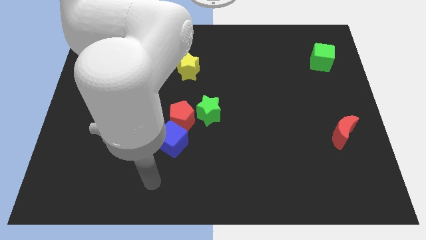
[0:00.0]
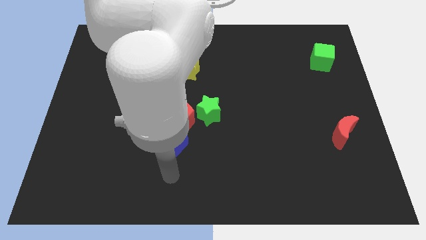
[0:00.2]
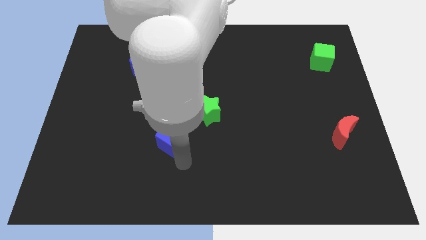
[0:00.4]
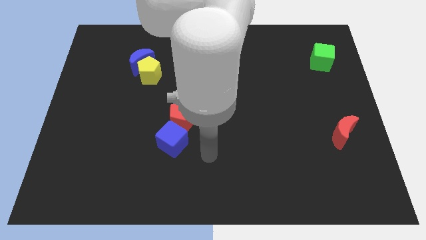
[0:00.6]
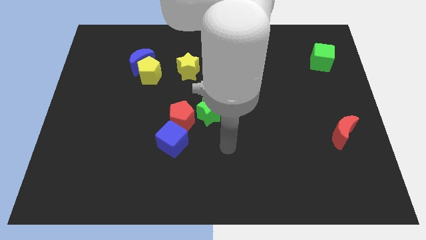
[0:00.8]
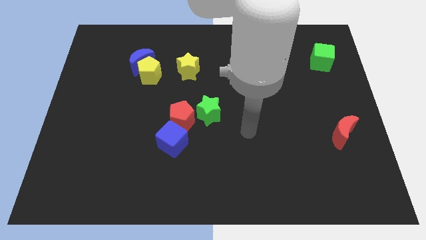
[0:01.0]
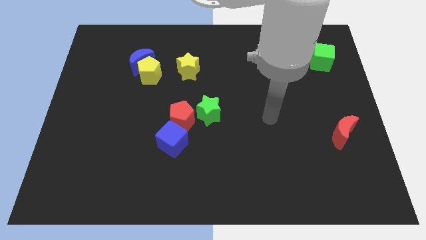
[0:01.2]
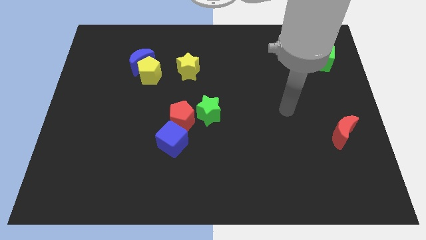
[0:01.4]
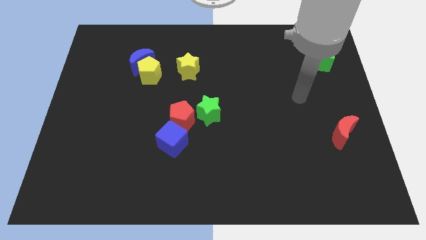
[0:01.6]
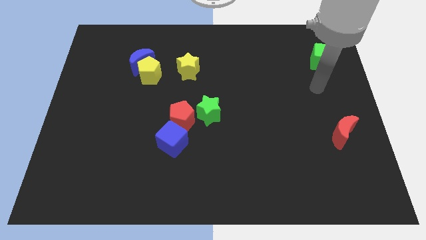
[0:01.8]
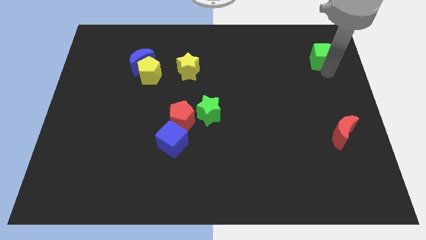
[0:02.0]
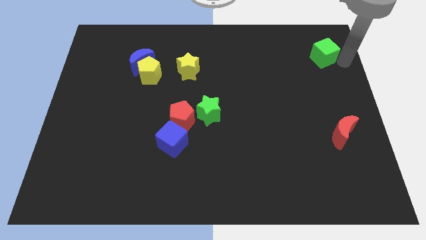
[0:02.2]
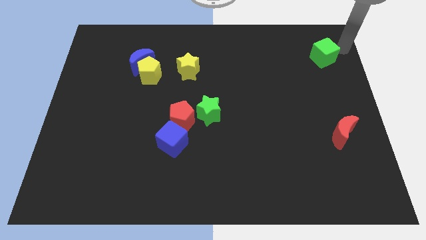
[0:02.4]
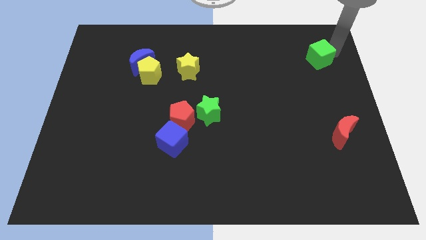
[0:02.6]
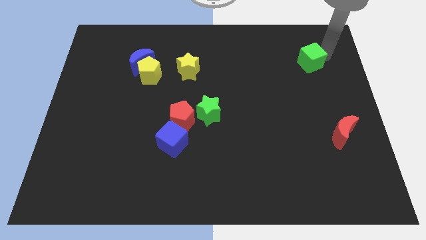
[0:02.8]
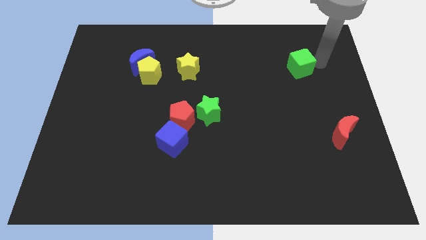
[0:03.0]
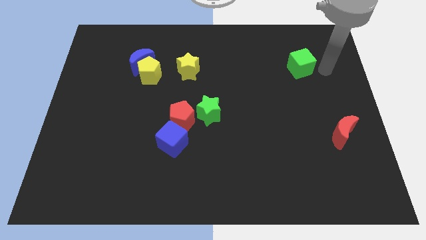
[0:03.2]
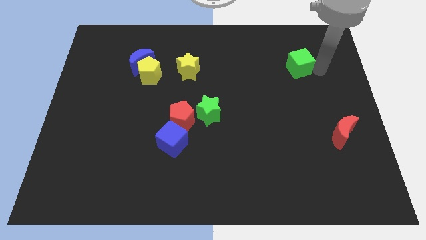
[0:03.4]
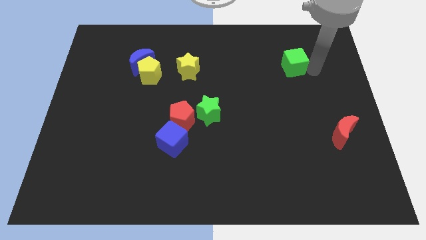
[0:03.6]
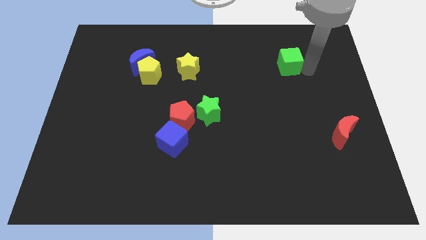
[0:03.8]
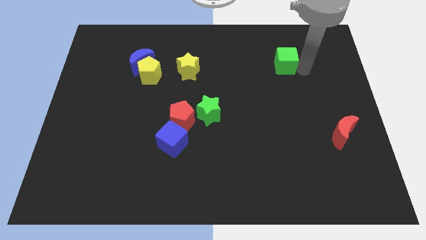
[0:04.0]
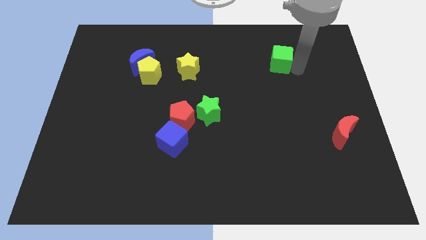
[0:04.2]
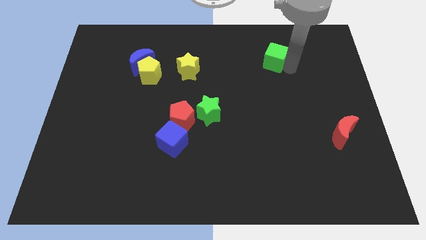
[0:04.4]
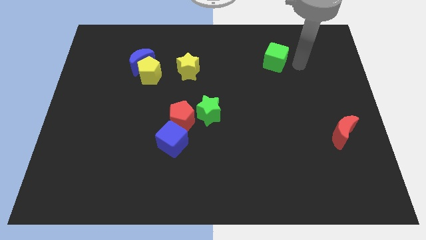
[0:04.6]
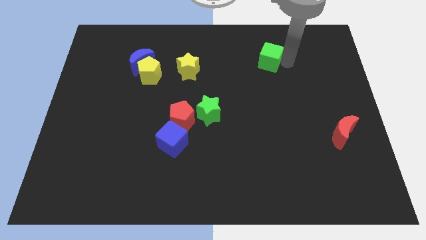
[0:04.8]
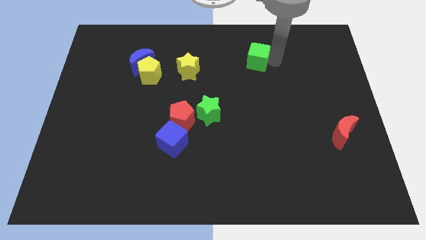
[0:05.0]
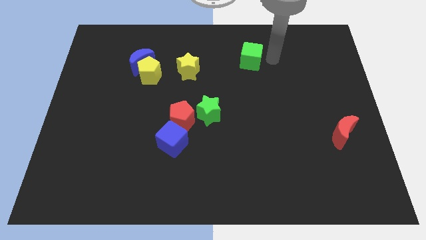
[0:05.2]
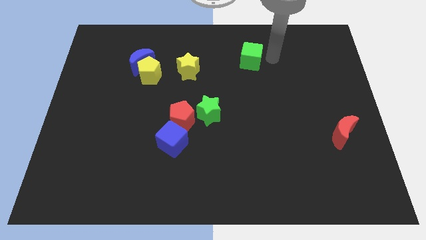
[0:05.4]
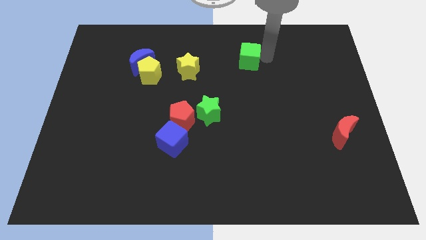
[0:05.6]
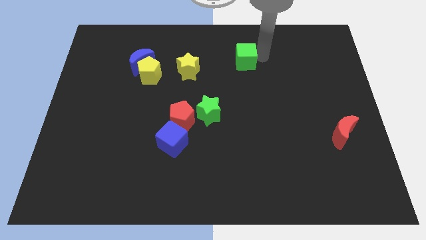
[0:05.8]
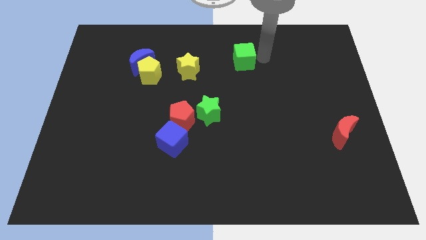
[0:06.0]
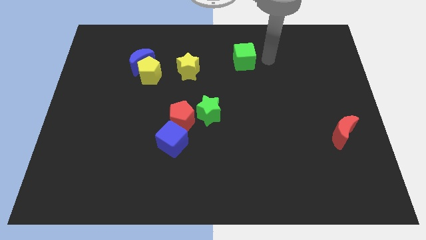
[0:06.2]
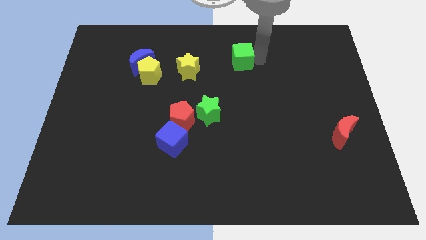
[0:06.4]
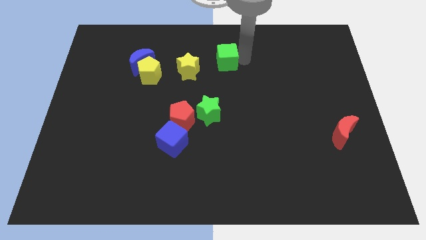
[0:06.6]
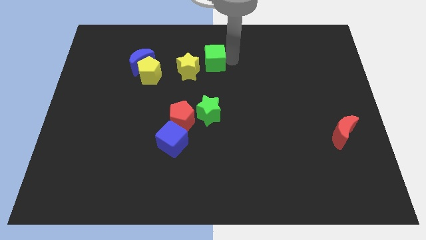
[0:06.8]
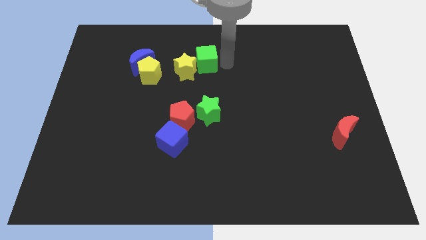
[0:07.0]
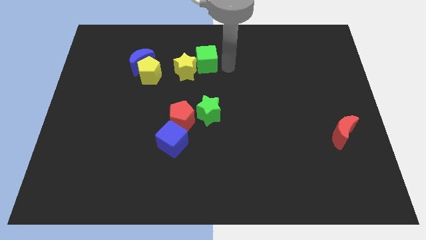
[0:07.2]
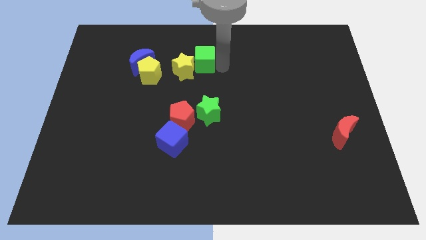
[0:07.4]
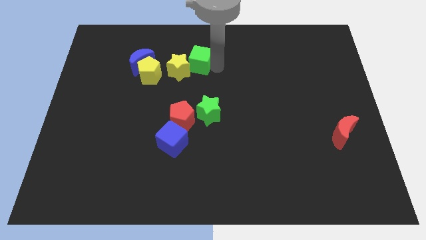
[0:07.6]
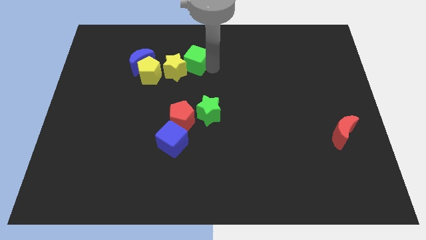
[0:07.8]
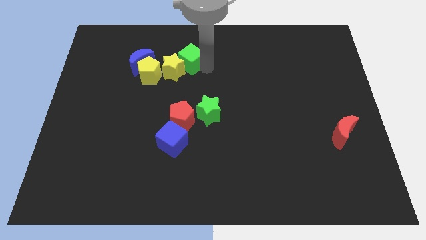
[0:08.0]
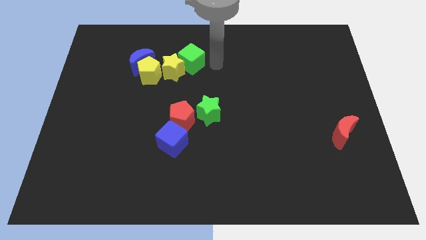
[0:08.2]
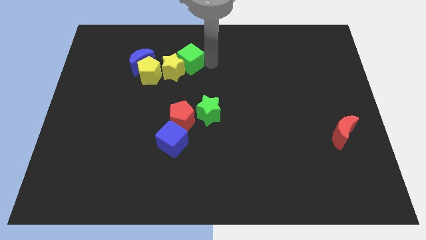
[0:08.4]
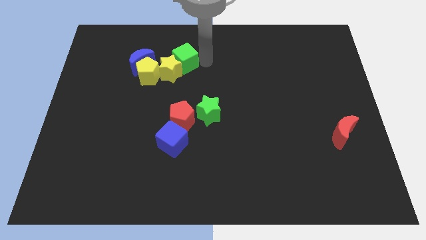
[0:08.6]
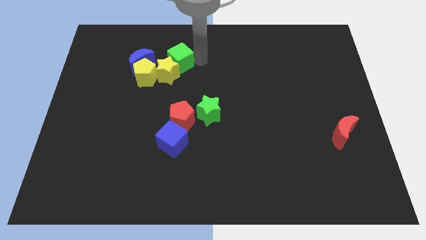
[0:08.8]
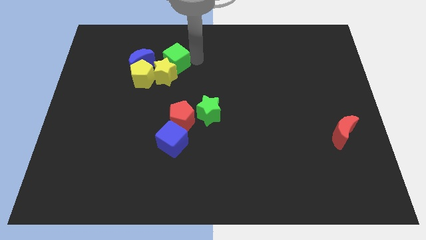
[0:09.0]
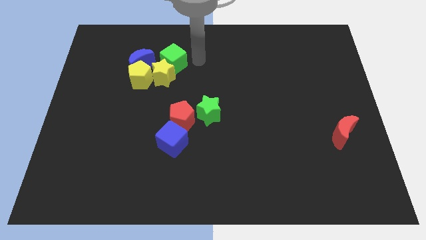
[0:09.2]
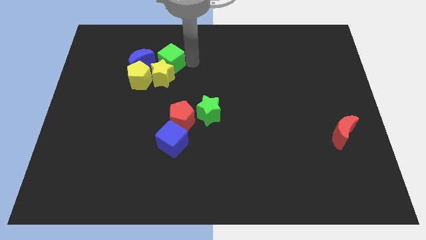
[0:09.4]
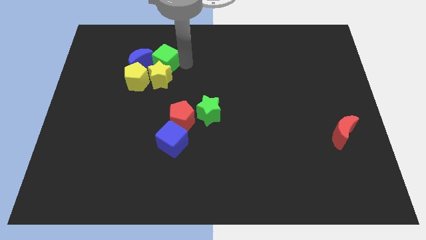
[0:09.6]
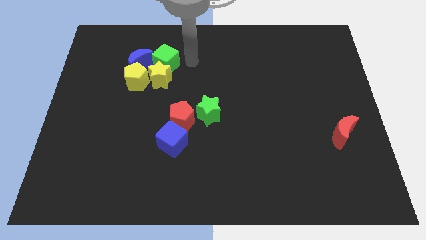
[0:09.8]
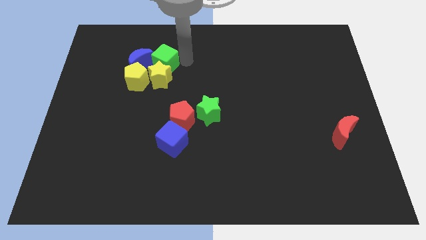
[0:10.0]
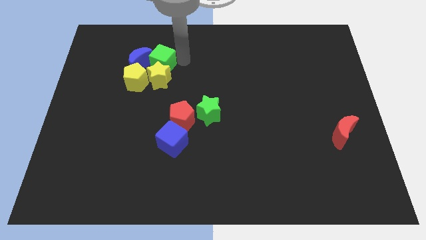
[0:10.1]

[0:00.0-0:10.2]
push the green cube towards the blue moon

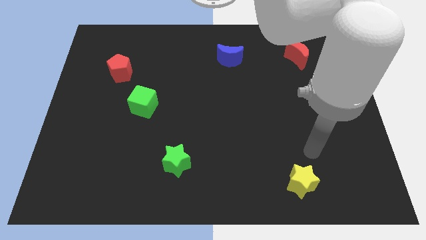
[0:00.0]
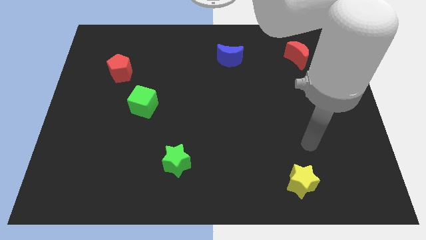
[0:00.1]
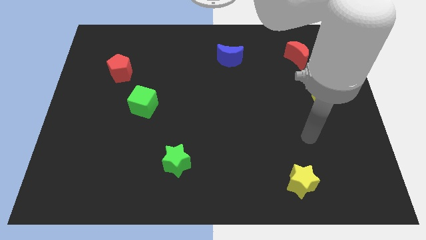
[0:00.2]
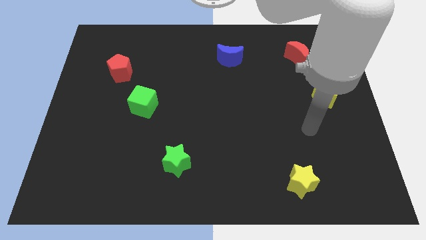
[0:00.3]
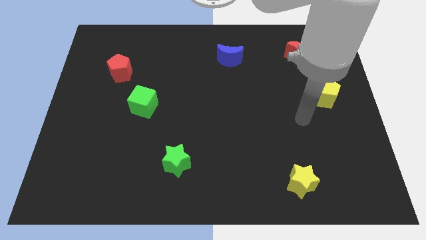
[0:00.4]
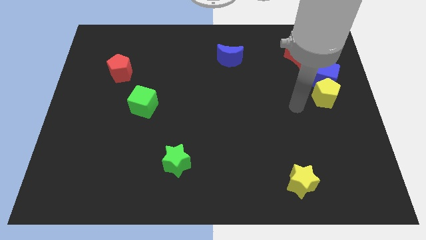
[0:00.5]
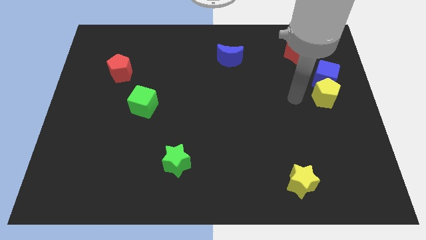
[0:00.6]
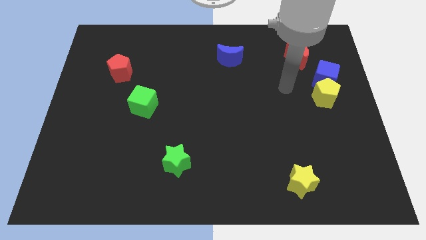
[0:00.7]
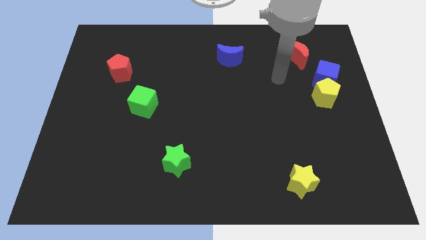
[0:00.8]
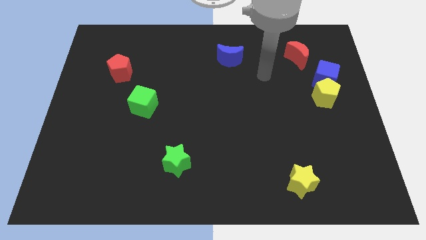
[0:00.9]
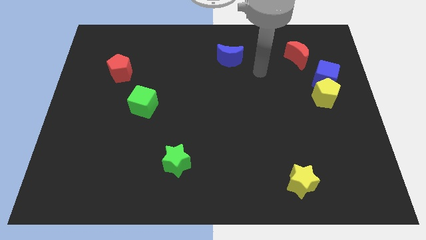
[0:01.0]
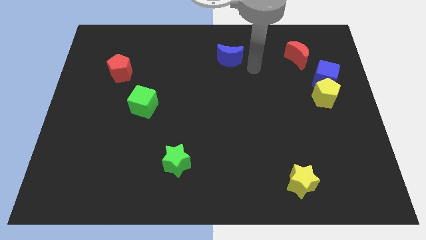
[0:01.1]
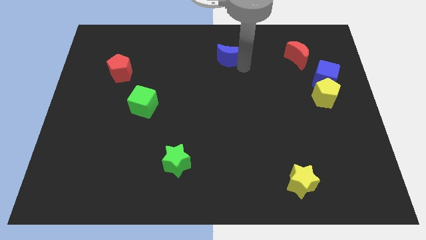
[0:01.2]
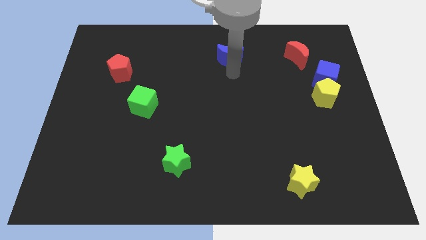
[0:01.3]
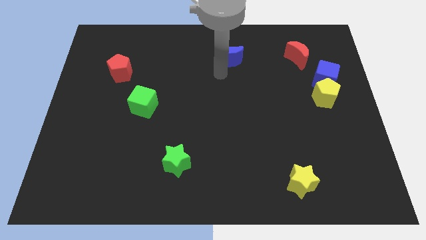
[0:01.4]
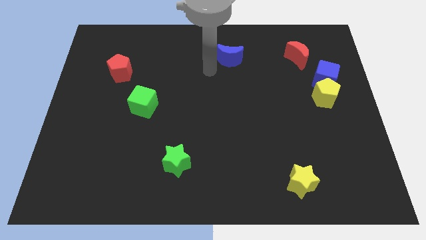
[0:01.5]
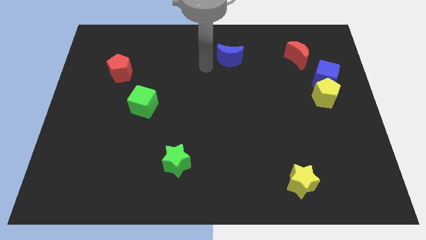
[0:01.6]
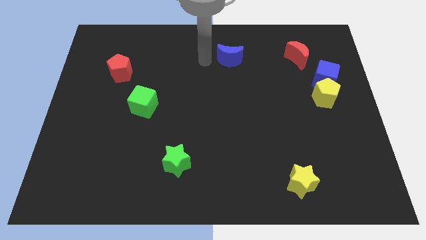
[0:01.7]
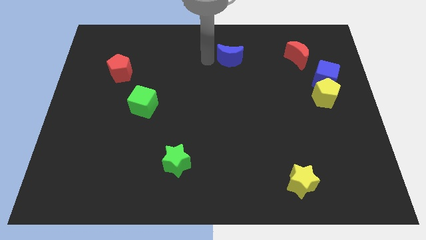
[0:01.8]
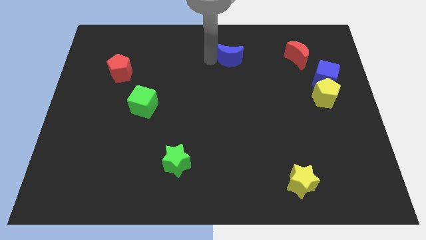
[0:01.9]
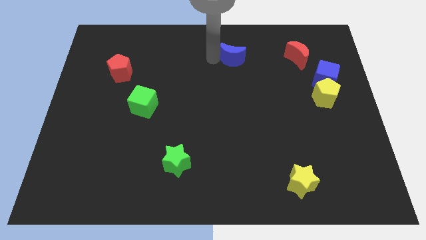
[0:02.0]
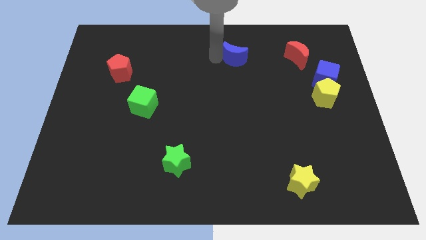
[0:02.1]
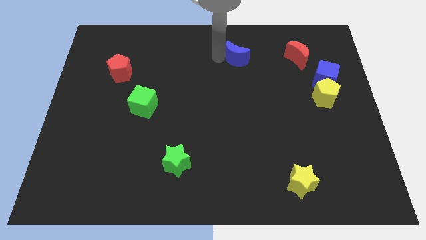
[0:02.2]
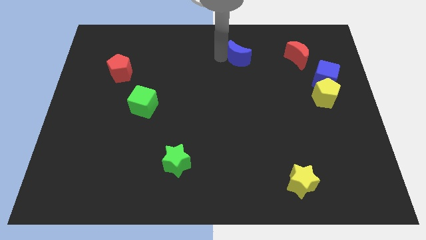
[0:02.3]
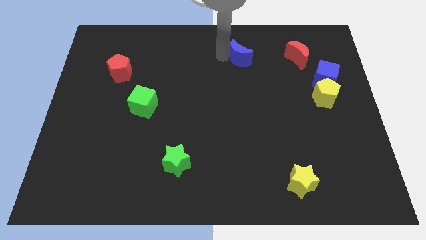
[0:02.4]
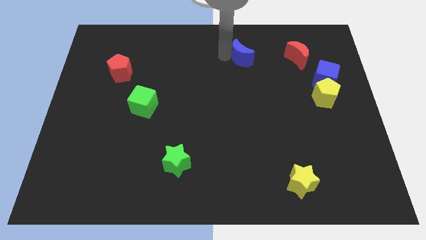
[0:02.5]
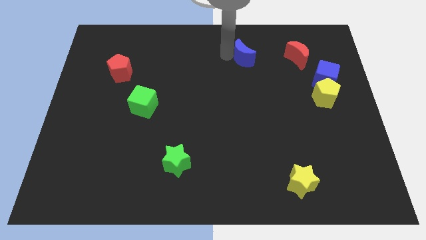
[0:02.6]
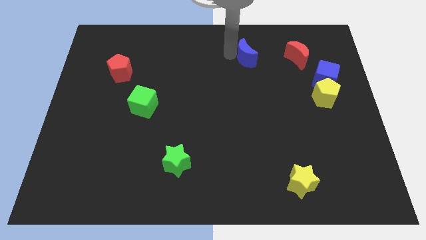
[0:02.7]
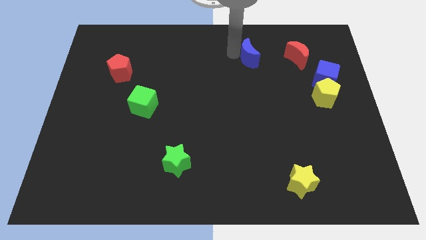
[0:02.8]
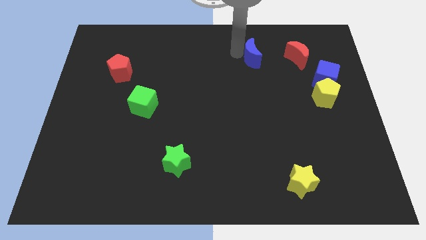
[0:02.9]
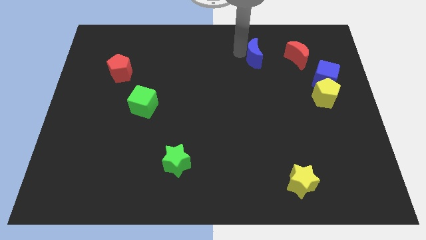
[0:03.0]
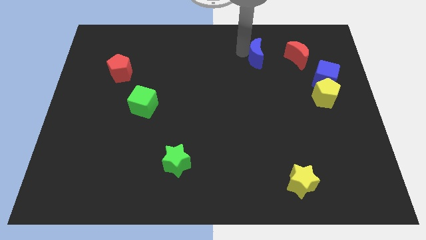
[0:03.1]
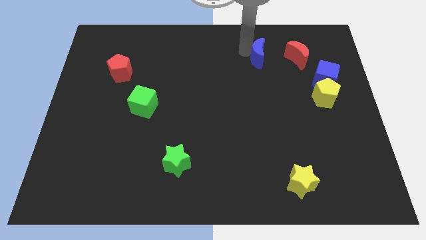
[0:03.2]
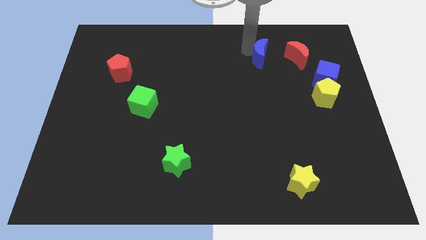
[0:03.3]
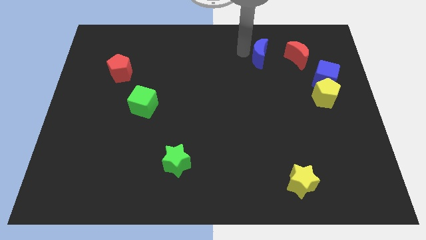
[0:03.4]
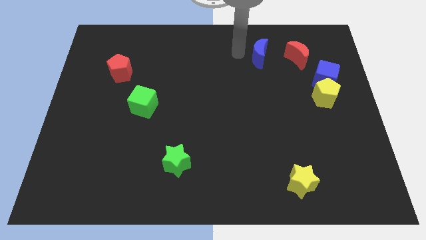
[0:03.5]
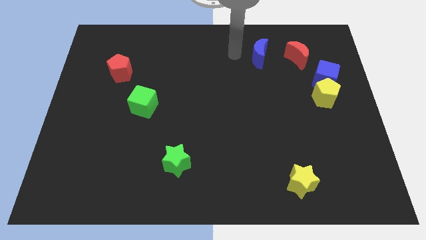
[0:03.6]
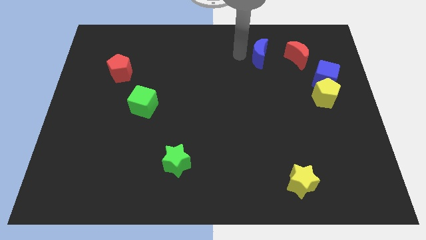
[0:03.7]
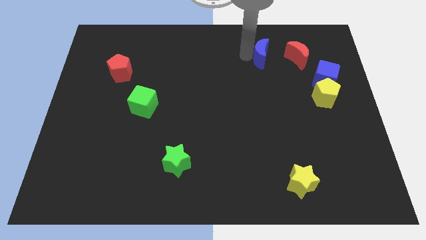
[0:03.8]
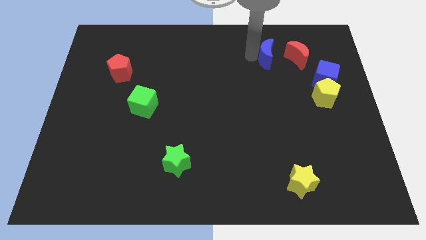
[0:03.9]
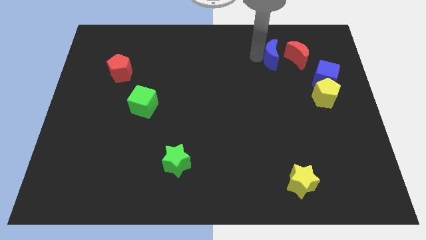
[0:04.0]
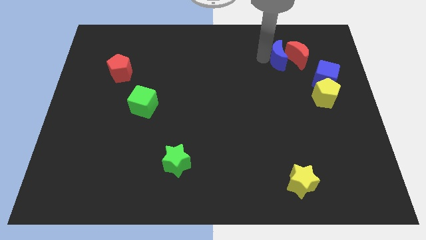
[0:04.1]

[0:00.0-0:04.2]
push the blue moon next to the red moon
